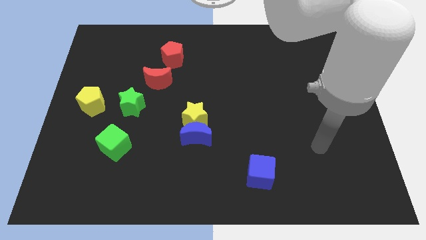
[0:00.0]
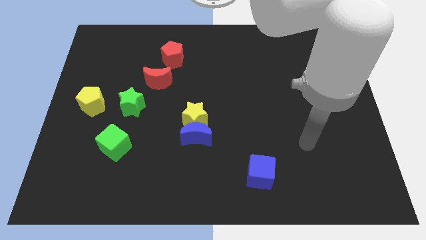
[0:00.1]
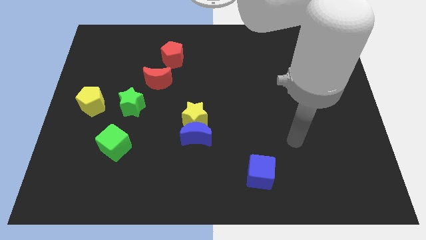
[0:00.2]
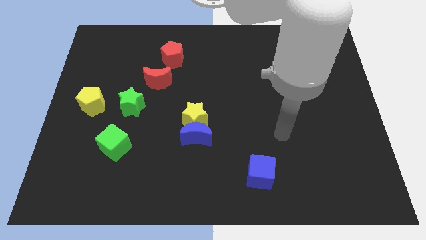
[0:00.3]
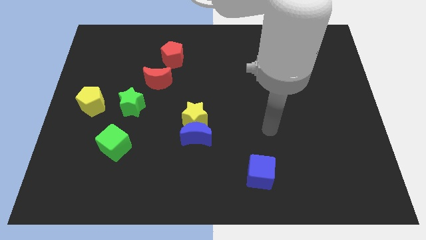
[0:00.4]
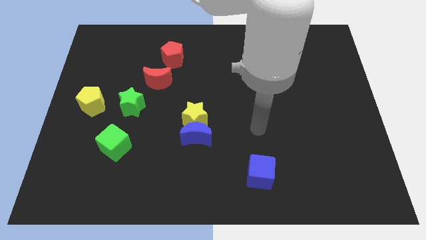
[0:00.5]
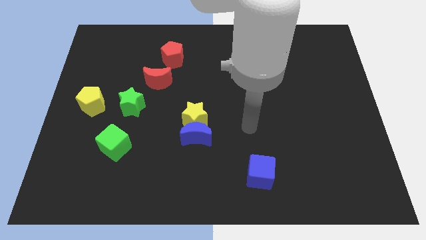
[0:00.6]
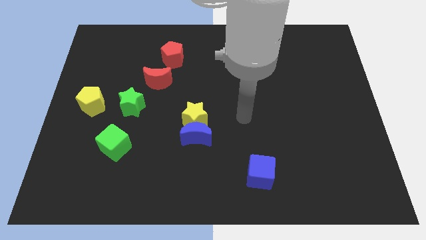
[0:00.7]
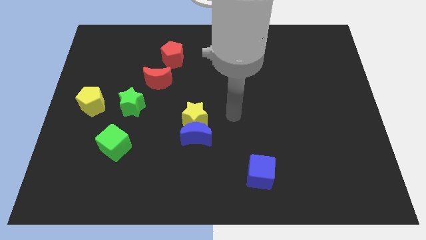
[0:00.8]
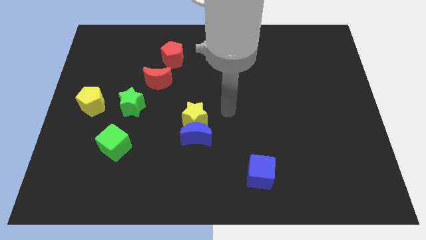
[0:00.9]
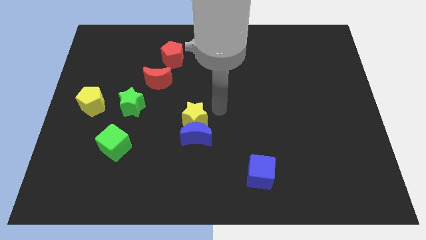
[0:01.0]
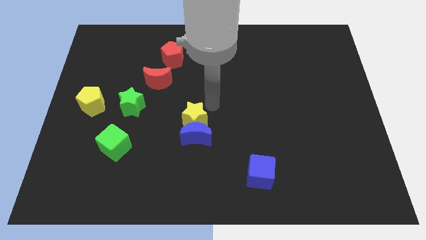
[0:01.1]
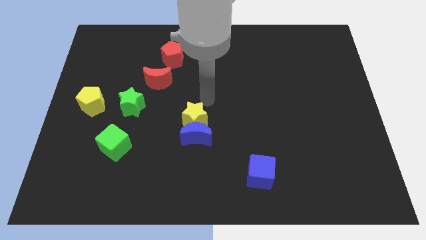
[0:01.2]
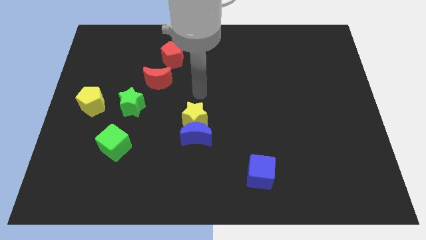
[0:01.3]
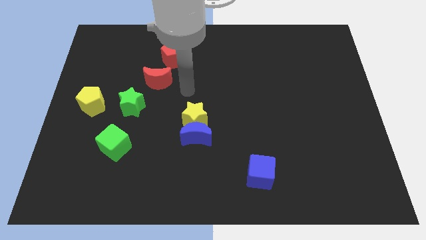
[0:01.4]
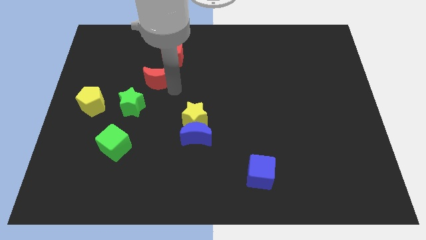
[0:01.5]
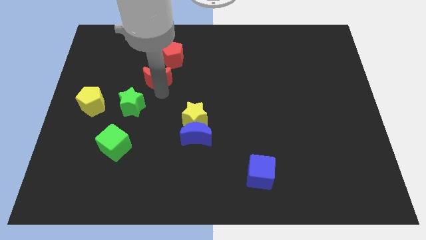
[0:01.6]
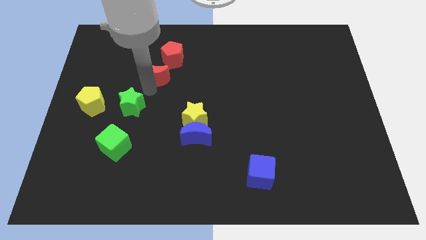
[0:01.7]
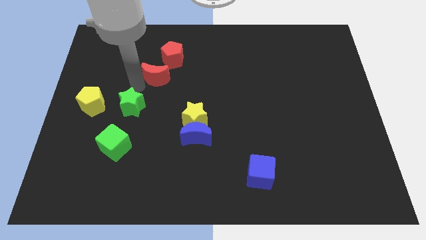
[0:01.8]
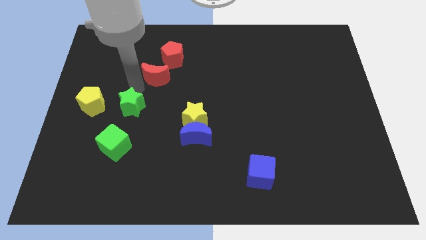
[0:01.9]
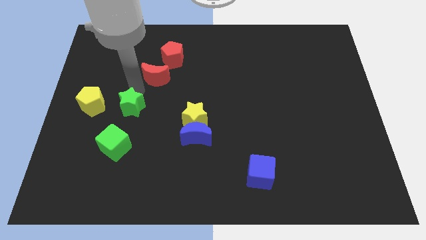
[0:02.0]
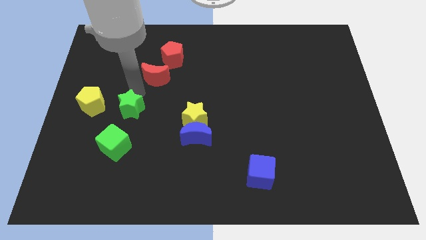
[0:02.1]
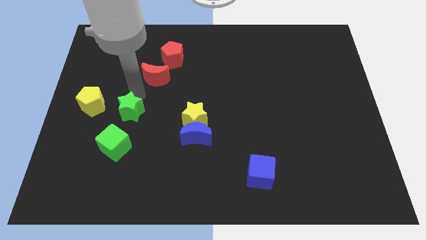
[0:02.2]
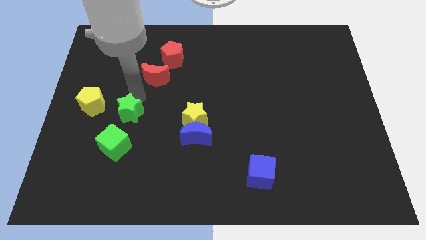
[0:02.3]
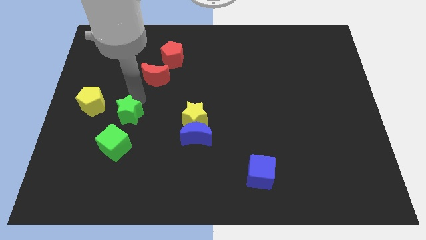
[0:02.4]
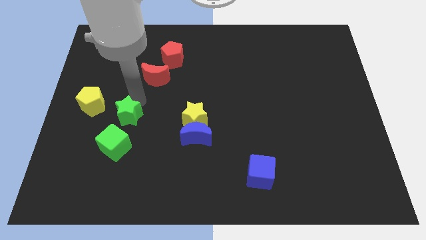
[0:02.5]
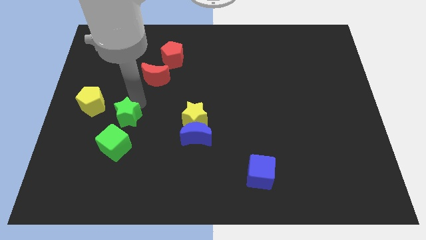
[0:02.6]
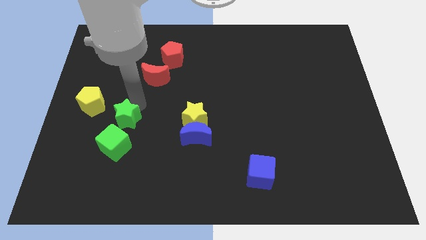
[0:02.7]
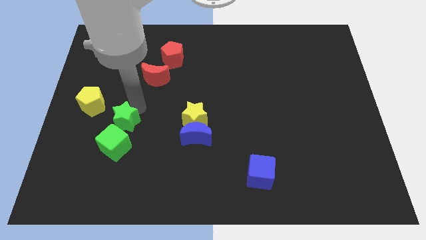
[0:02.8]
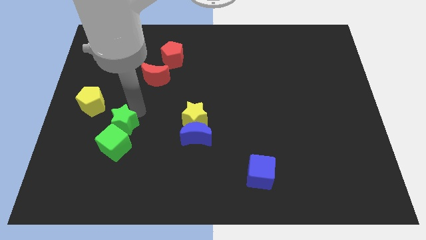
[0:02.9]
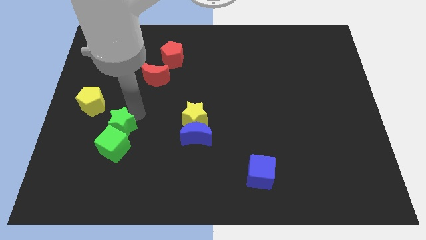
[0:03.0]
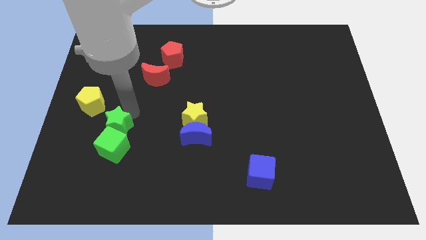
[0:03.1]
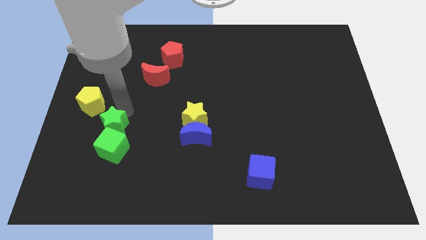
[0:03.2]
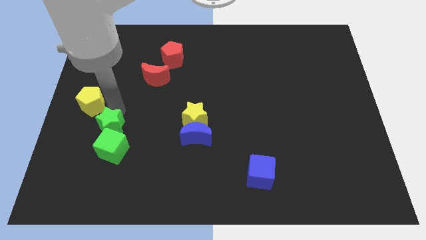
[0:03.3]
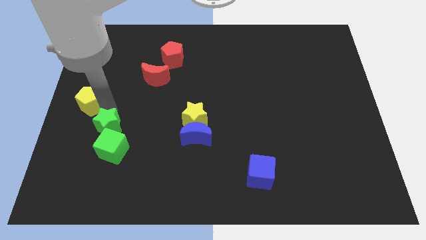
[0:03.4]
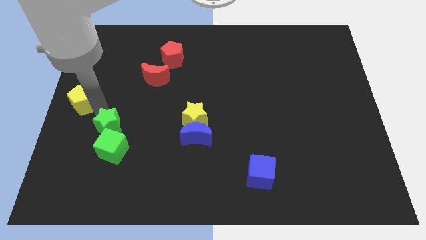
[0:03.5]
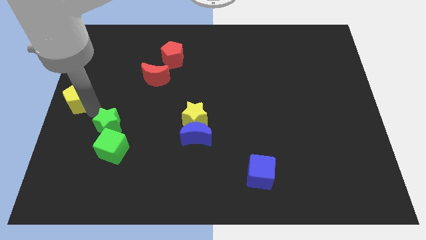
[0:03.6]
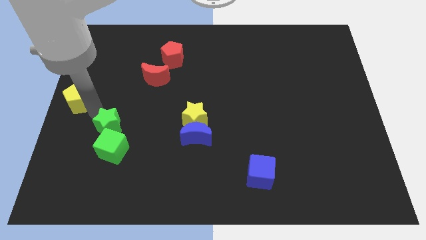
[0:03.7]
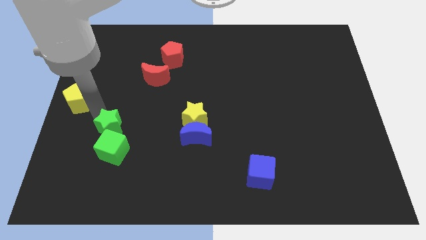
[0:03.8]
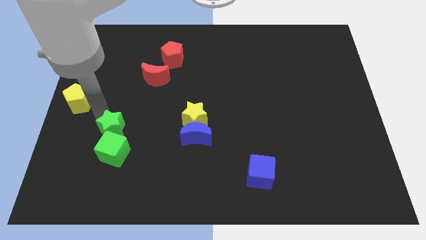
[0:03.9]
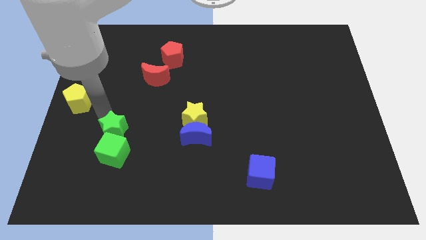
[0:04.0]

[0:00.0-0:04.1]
slightly move the green star downwards

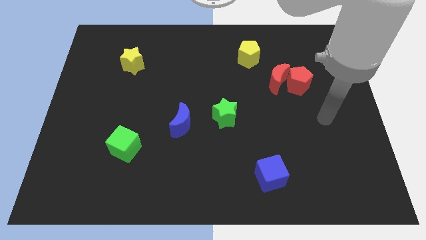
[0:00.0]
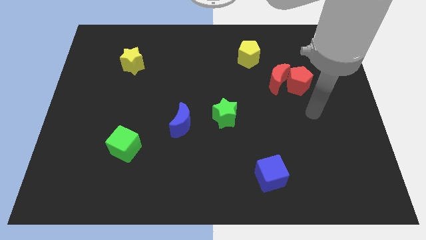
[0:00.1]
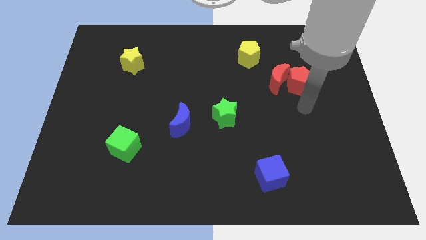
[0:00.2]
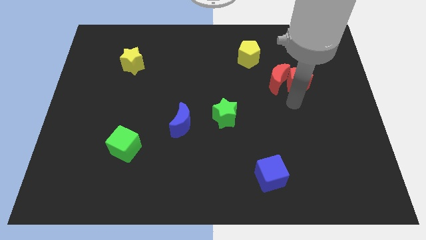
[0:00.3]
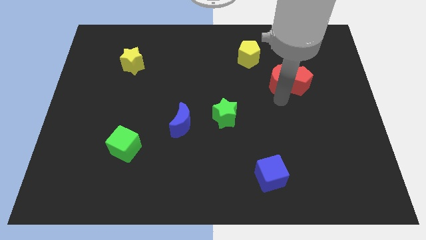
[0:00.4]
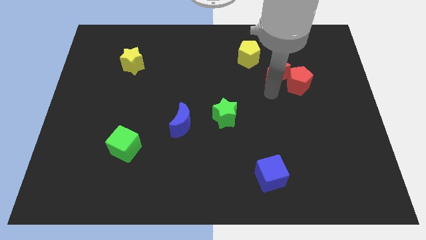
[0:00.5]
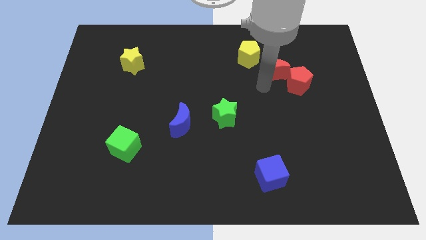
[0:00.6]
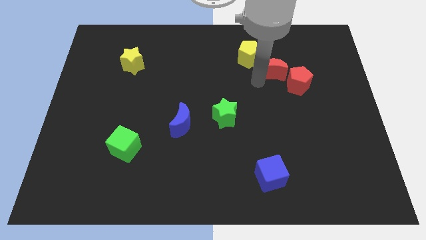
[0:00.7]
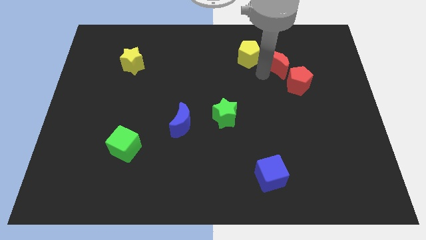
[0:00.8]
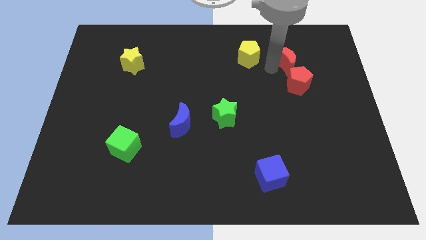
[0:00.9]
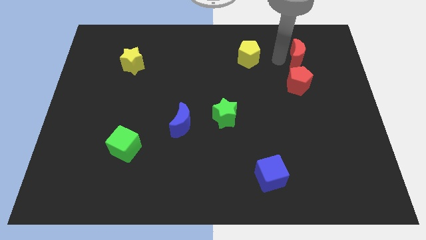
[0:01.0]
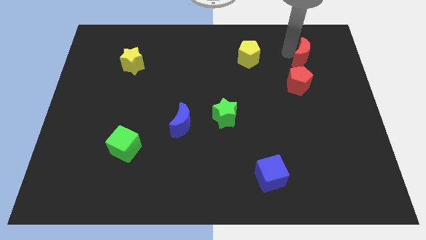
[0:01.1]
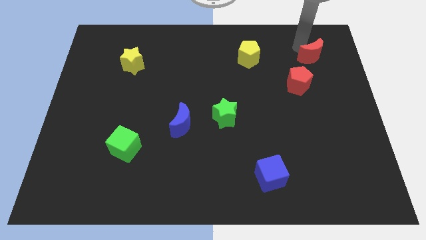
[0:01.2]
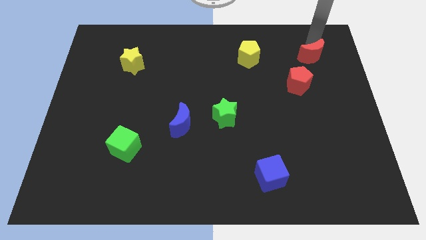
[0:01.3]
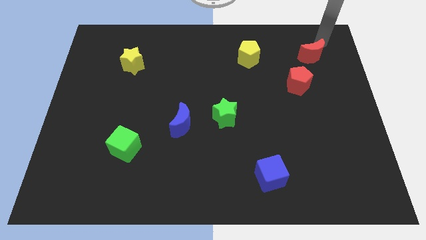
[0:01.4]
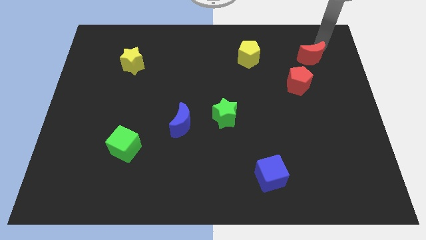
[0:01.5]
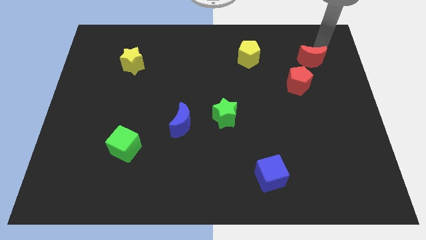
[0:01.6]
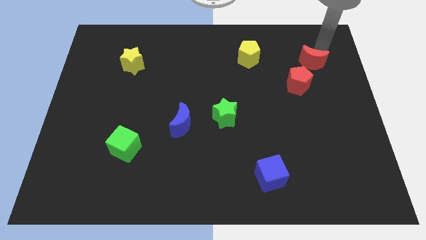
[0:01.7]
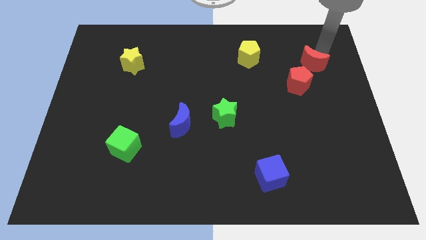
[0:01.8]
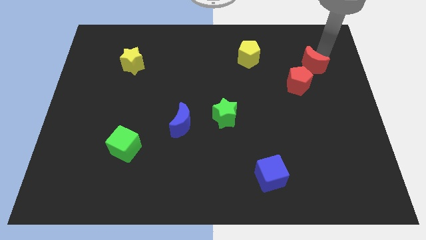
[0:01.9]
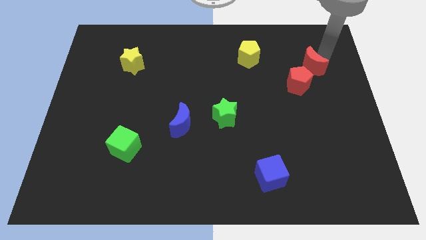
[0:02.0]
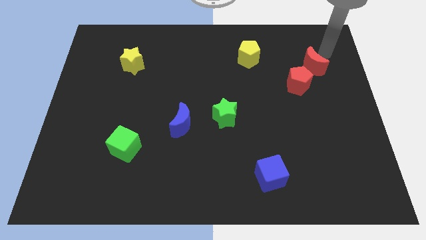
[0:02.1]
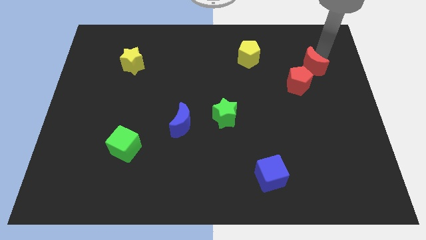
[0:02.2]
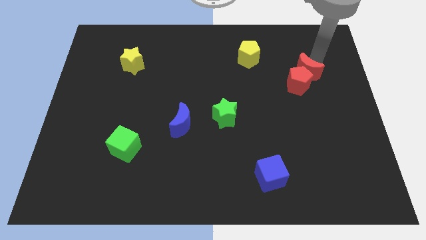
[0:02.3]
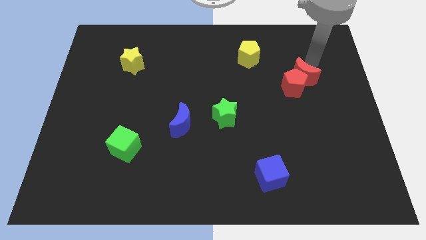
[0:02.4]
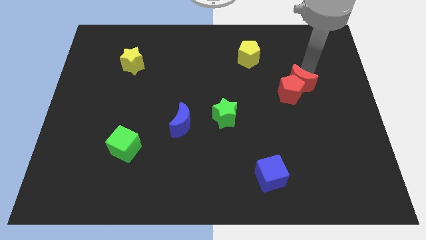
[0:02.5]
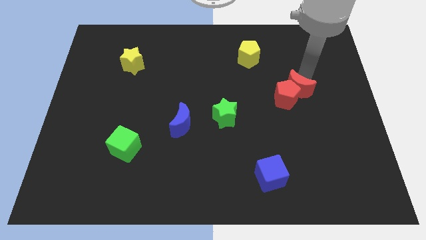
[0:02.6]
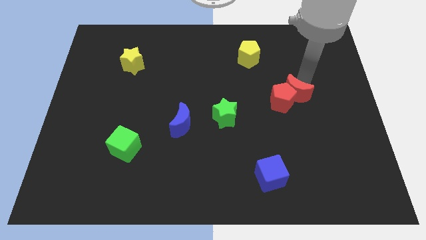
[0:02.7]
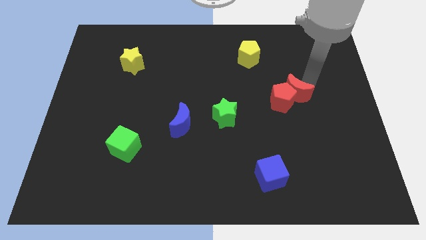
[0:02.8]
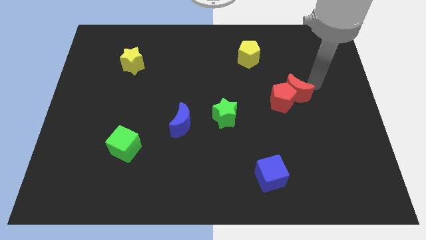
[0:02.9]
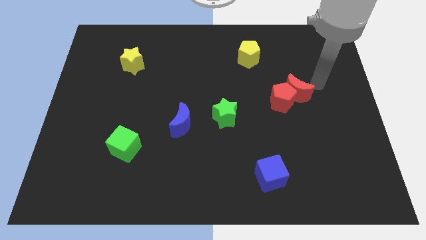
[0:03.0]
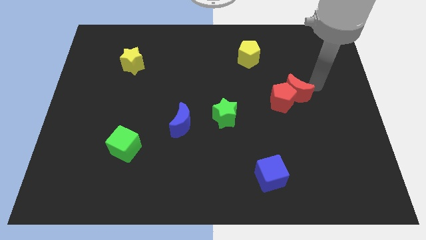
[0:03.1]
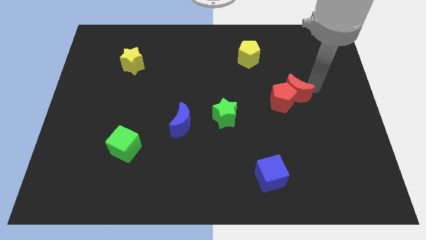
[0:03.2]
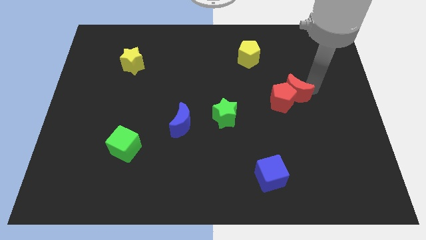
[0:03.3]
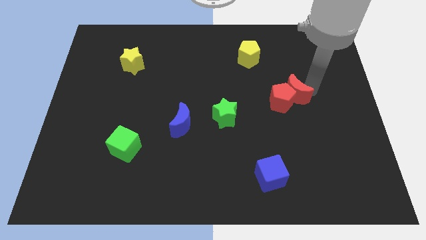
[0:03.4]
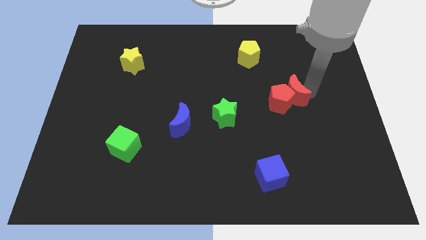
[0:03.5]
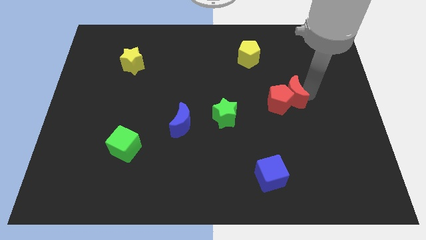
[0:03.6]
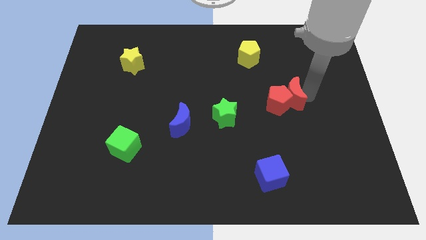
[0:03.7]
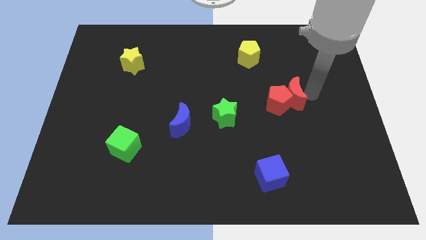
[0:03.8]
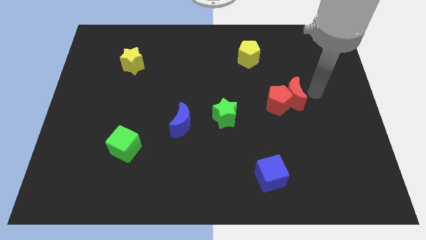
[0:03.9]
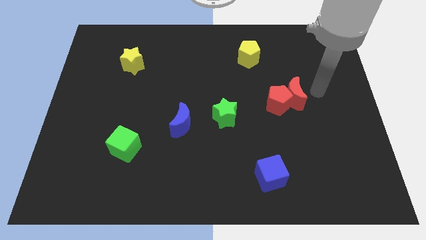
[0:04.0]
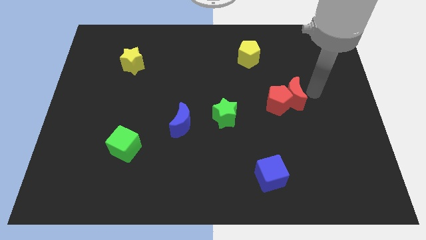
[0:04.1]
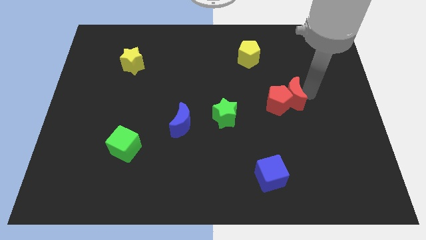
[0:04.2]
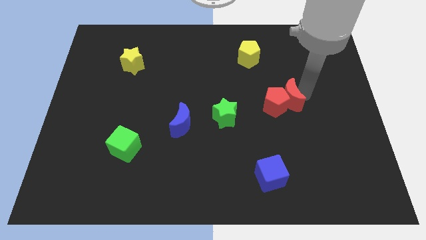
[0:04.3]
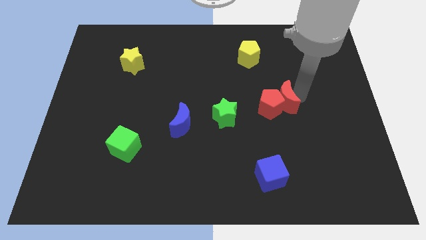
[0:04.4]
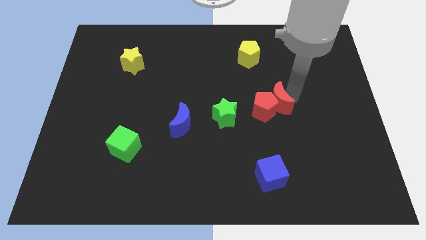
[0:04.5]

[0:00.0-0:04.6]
push the red moon downwards a little
